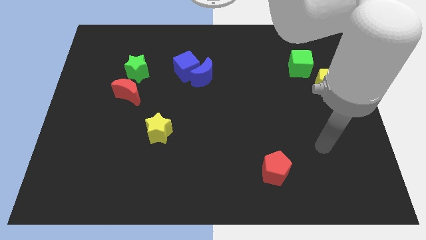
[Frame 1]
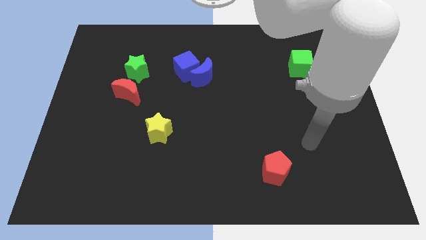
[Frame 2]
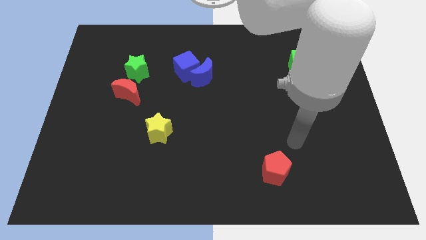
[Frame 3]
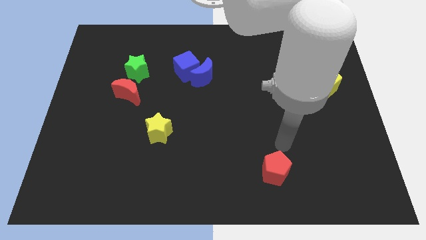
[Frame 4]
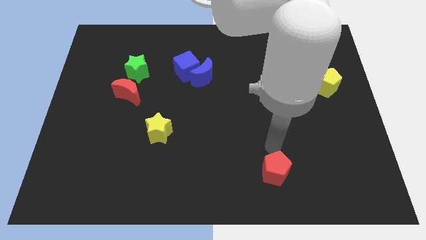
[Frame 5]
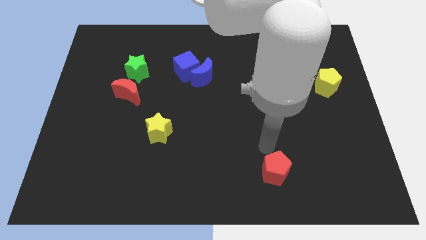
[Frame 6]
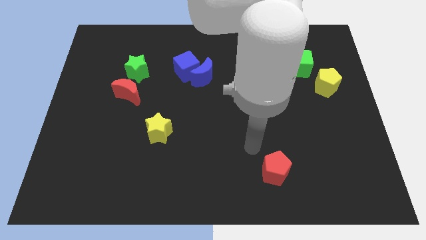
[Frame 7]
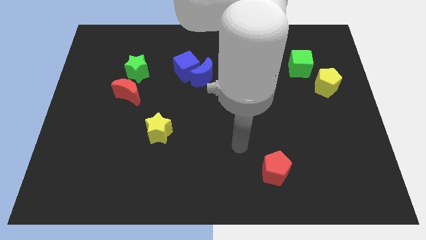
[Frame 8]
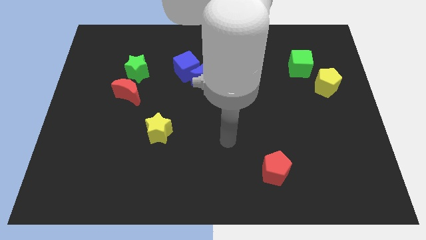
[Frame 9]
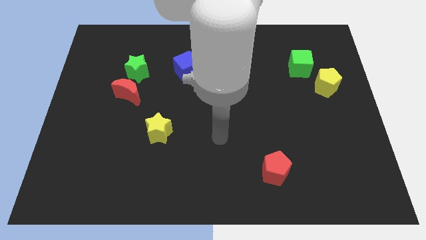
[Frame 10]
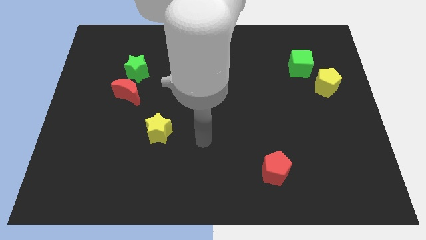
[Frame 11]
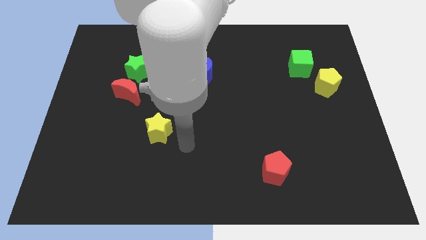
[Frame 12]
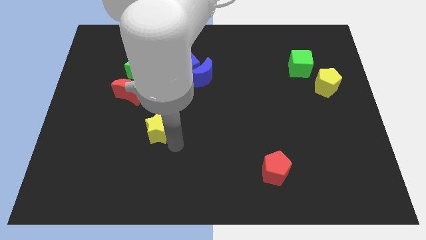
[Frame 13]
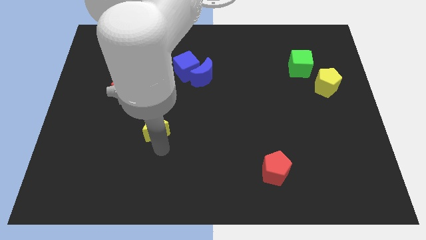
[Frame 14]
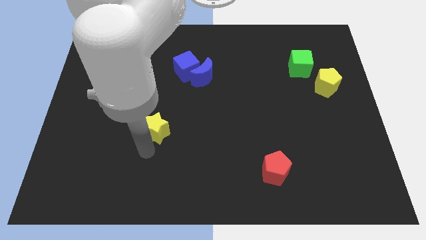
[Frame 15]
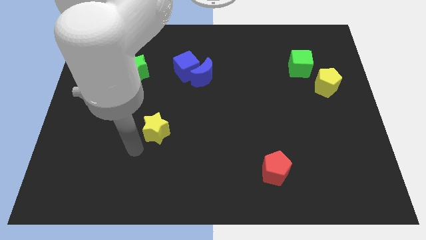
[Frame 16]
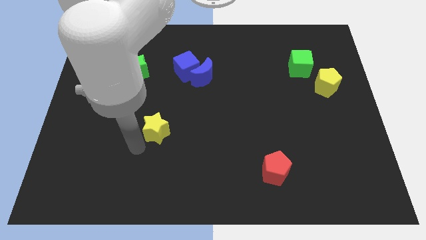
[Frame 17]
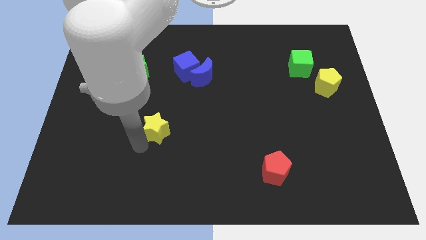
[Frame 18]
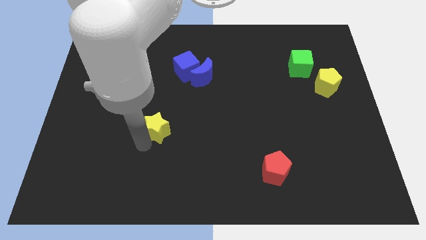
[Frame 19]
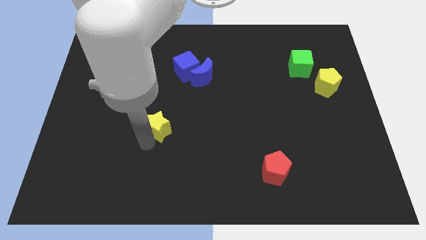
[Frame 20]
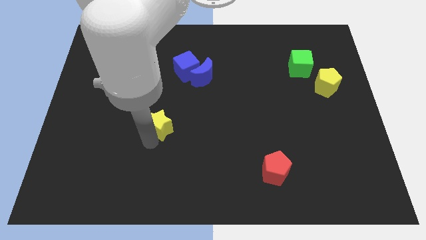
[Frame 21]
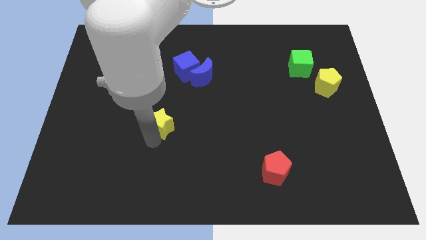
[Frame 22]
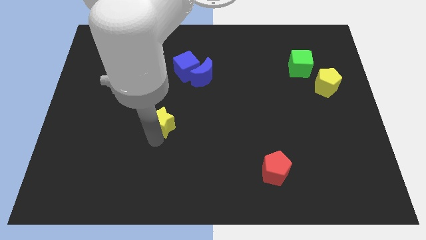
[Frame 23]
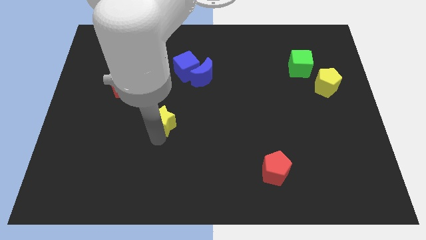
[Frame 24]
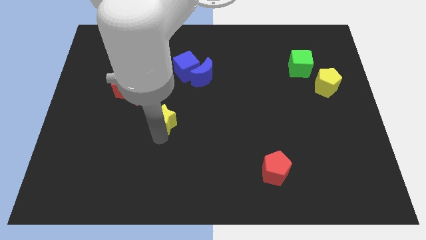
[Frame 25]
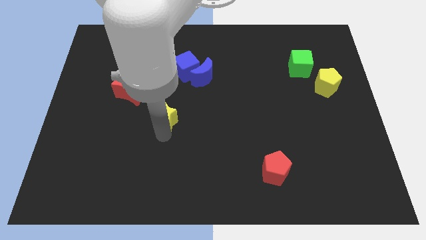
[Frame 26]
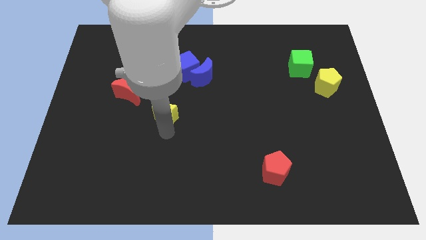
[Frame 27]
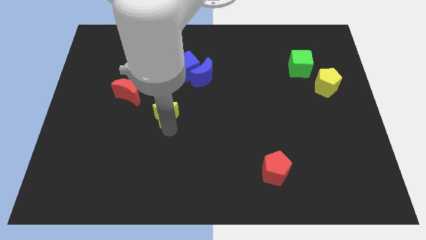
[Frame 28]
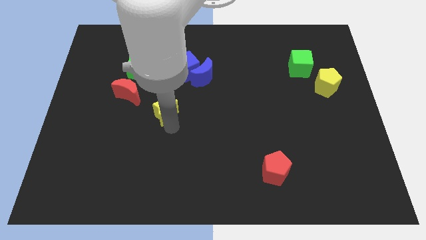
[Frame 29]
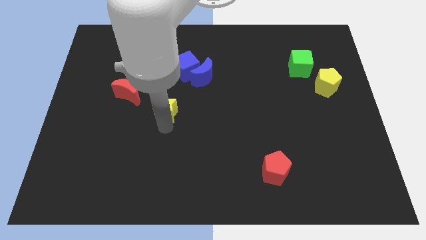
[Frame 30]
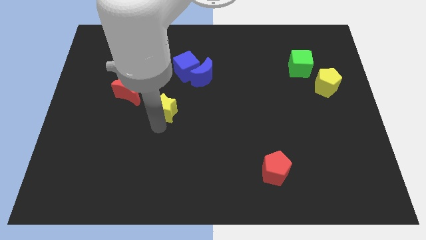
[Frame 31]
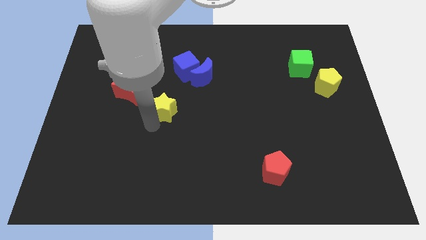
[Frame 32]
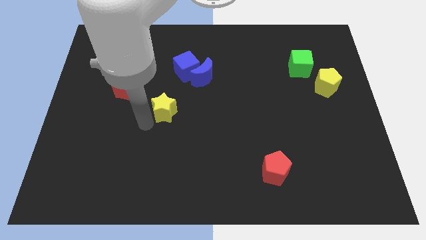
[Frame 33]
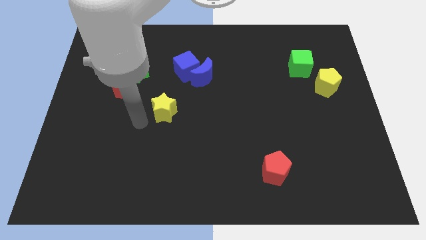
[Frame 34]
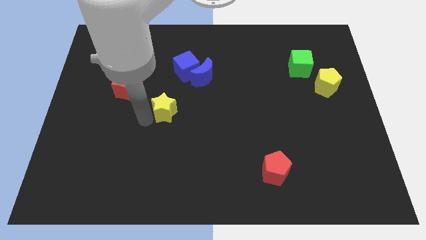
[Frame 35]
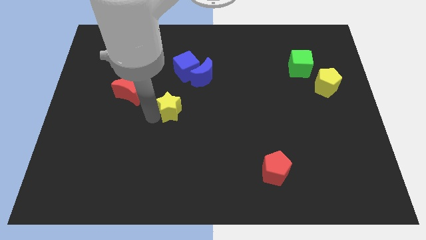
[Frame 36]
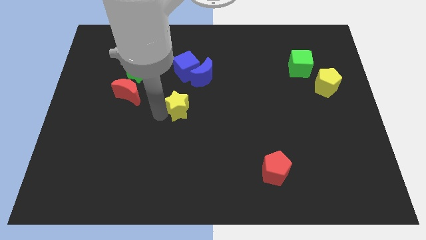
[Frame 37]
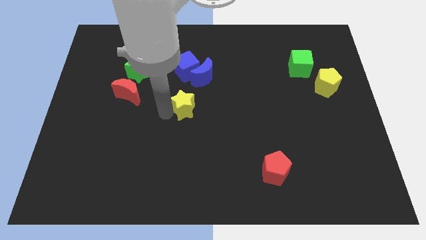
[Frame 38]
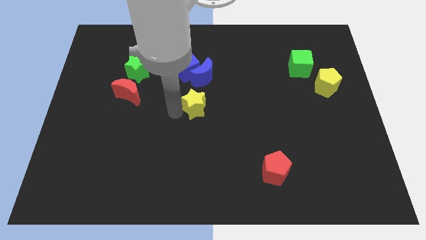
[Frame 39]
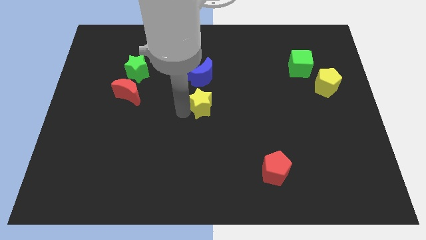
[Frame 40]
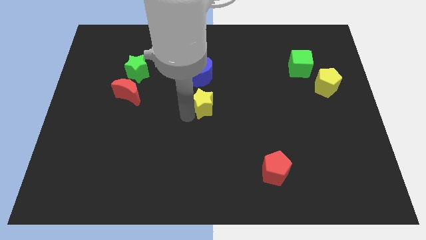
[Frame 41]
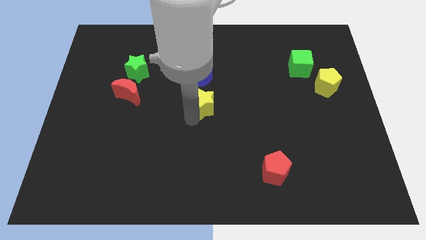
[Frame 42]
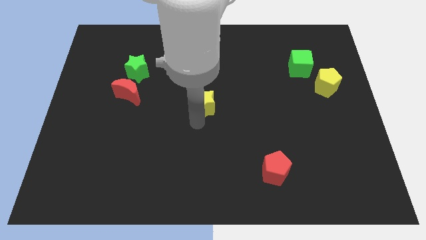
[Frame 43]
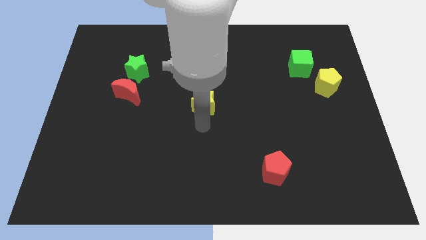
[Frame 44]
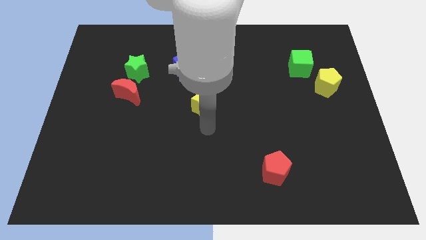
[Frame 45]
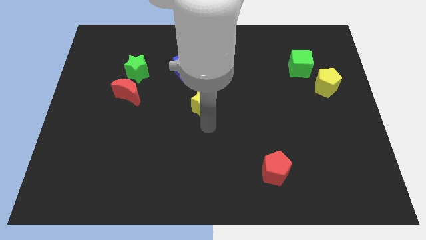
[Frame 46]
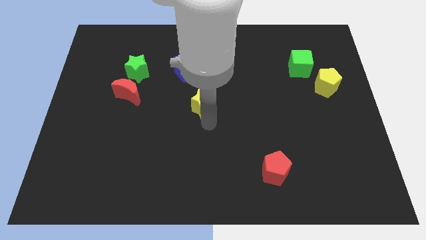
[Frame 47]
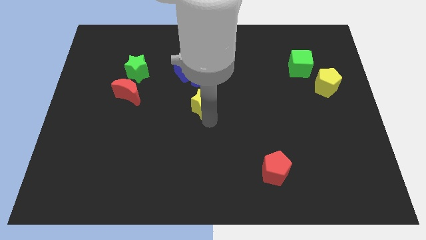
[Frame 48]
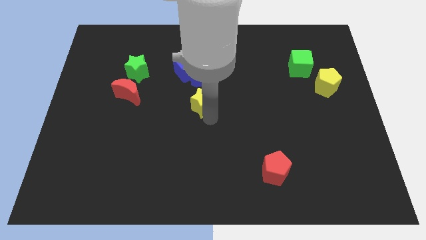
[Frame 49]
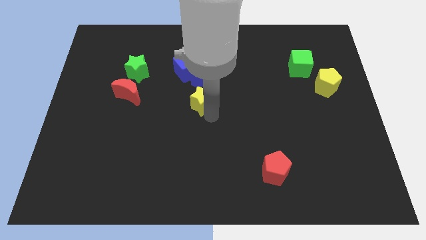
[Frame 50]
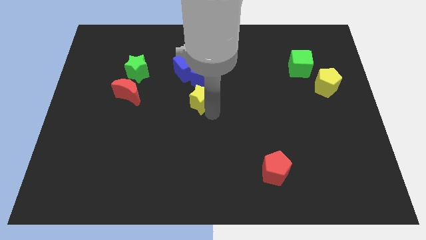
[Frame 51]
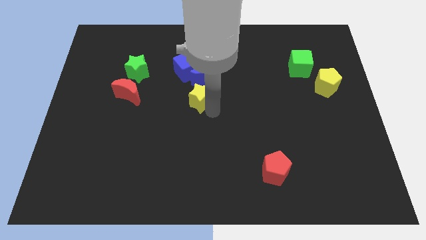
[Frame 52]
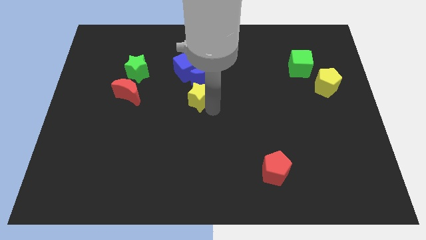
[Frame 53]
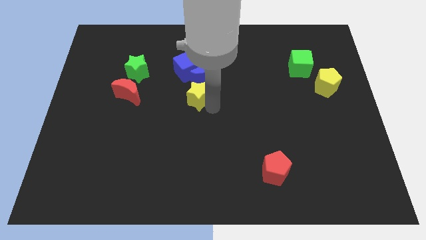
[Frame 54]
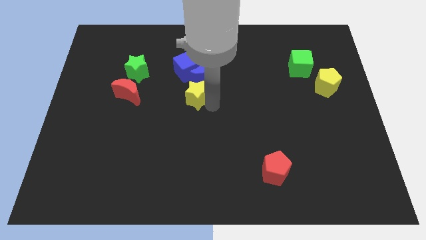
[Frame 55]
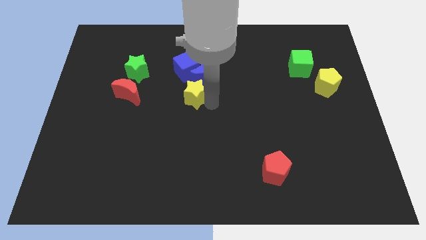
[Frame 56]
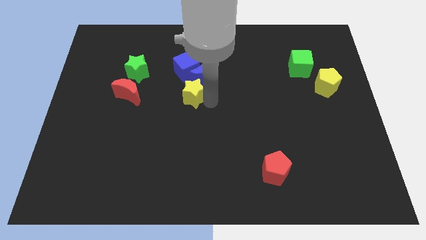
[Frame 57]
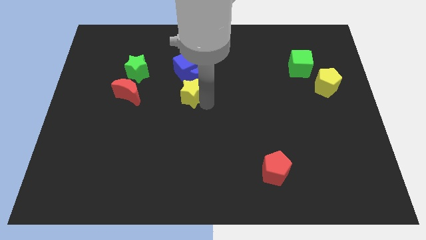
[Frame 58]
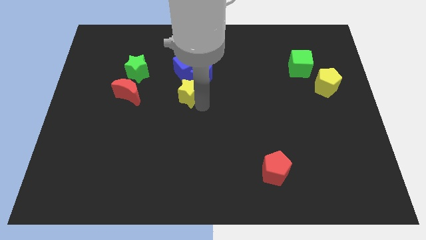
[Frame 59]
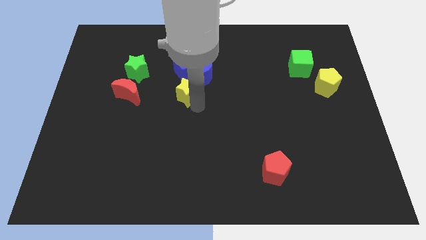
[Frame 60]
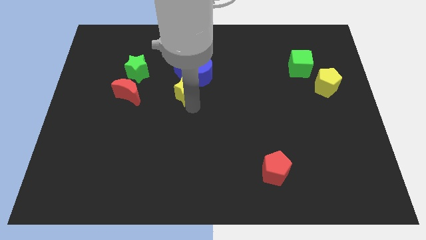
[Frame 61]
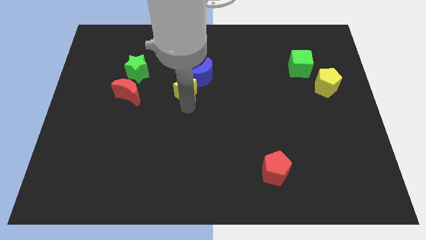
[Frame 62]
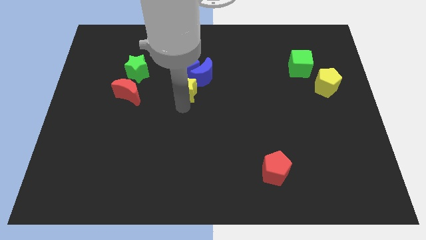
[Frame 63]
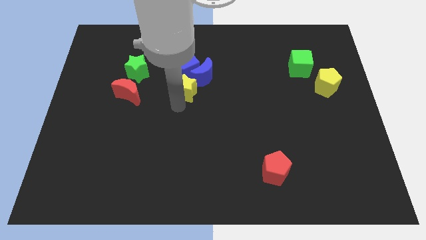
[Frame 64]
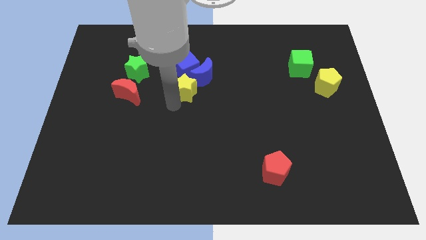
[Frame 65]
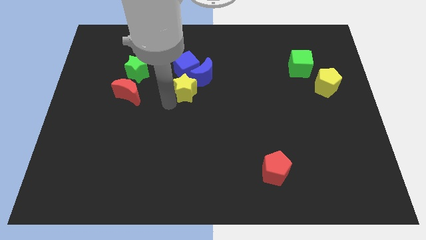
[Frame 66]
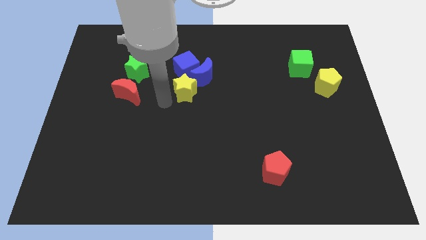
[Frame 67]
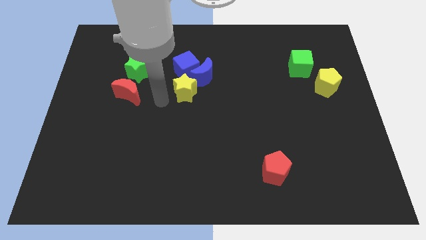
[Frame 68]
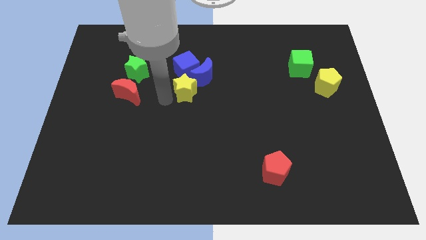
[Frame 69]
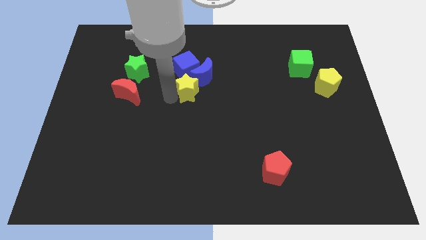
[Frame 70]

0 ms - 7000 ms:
move the yellow star to the blue moon

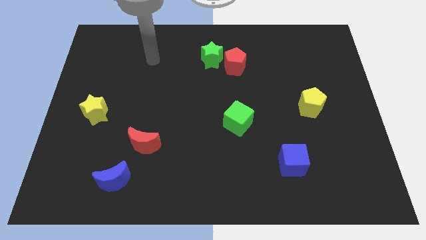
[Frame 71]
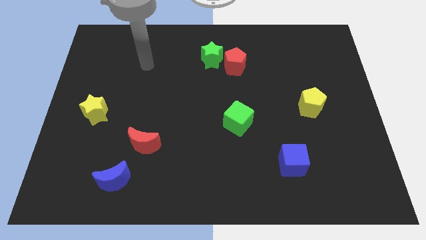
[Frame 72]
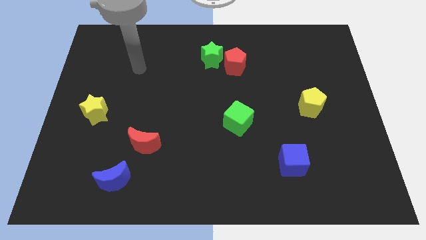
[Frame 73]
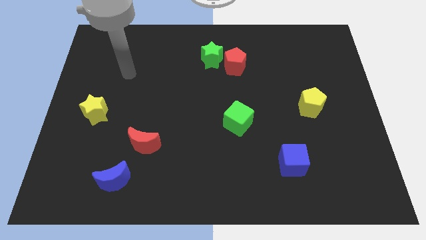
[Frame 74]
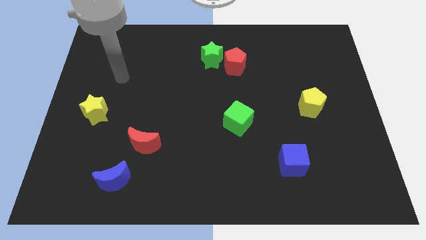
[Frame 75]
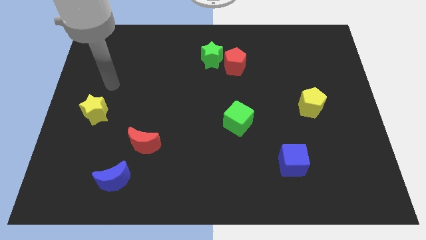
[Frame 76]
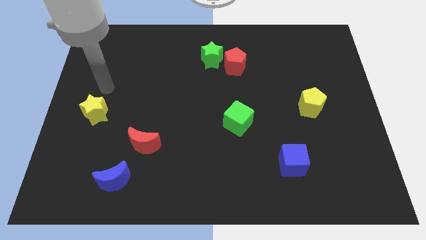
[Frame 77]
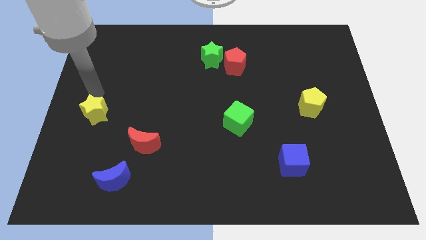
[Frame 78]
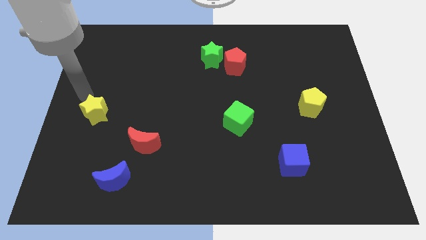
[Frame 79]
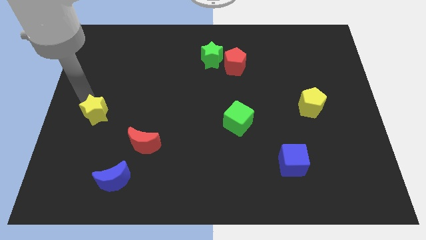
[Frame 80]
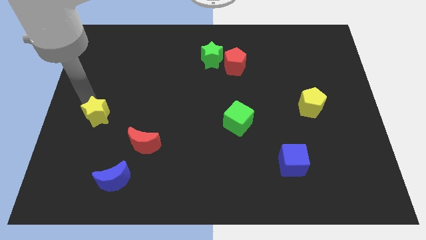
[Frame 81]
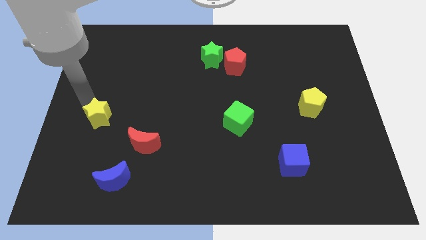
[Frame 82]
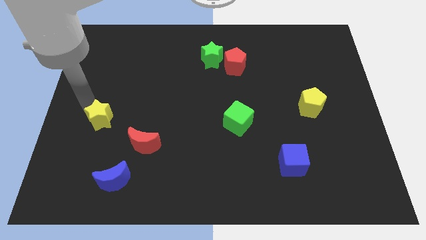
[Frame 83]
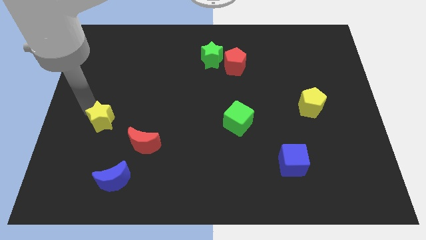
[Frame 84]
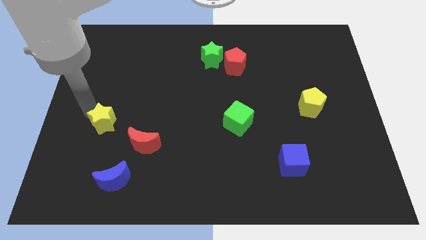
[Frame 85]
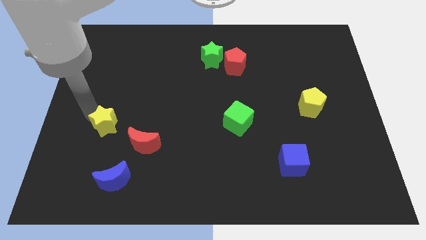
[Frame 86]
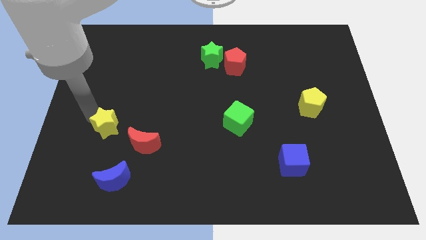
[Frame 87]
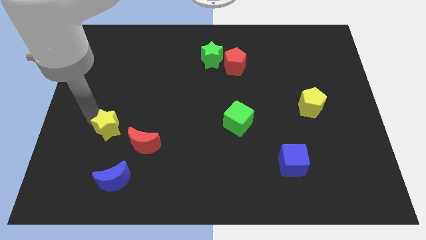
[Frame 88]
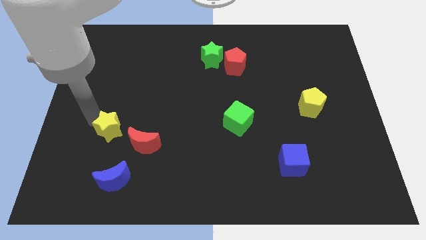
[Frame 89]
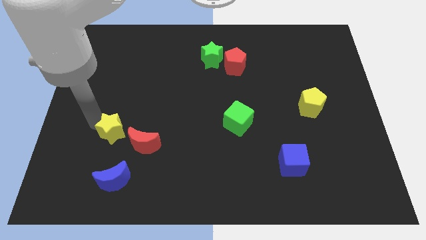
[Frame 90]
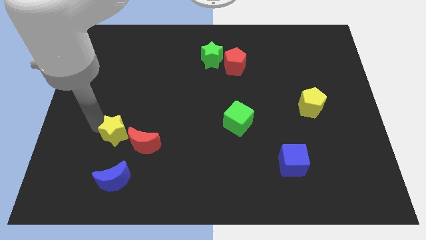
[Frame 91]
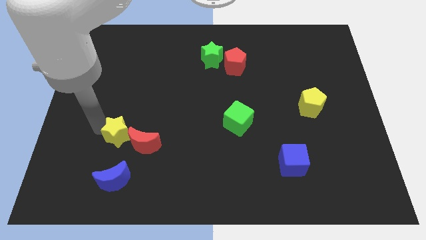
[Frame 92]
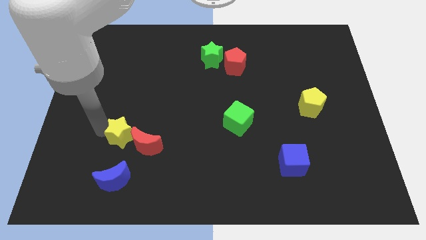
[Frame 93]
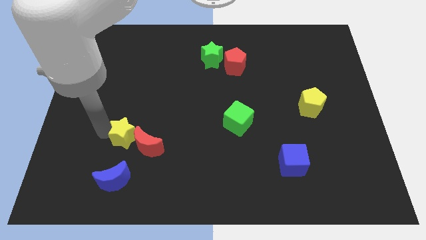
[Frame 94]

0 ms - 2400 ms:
move the yellow star to the red moon
